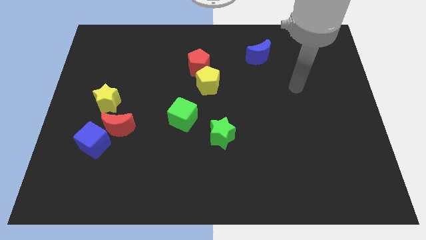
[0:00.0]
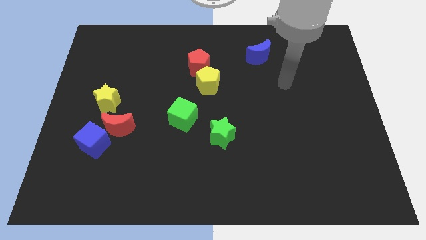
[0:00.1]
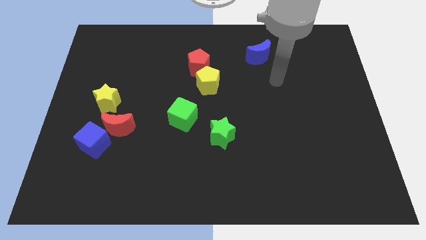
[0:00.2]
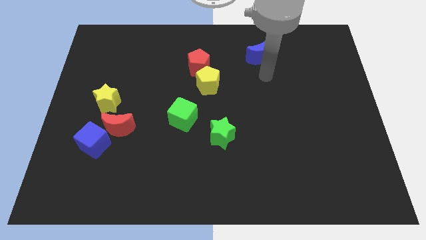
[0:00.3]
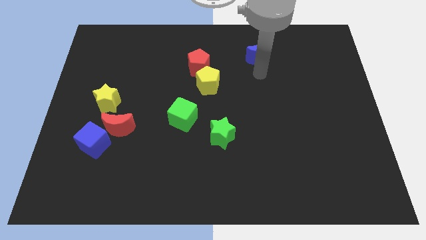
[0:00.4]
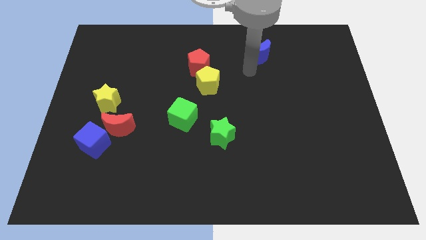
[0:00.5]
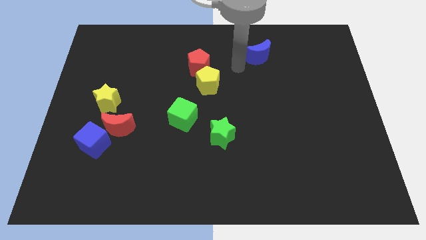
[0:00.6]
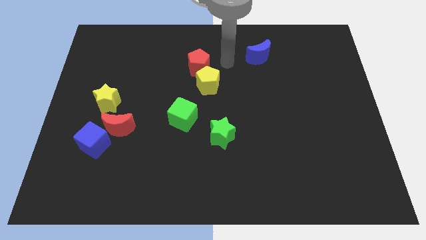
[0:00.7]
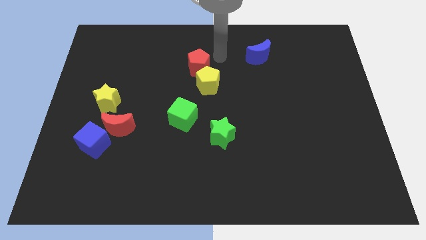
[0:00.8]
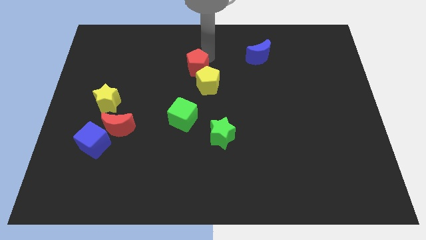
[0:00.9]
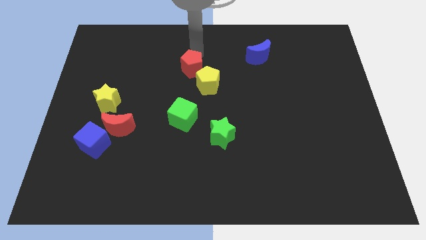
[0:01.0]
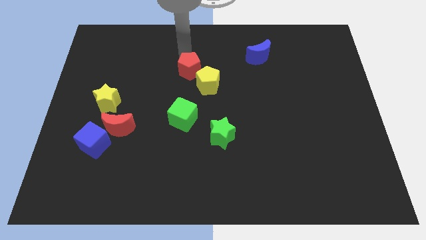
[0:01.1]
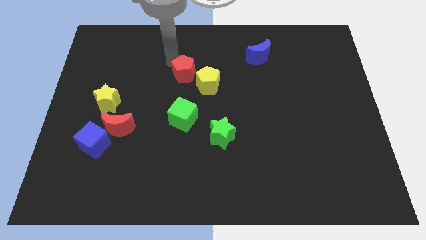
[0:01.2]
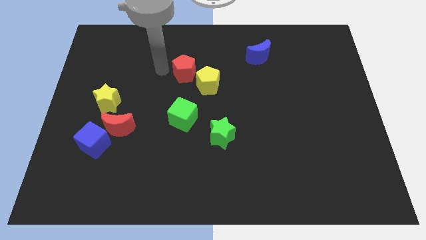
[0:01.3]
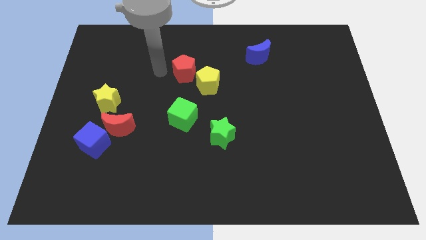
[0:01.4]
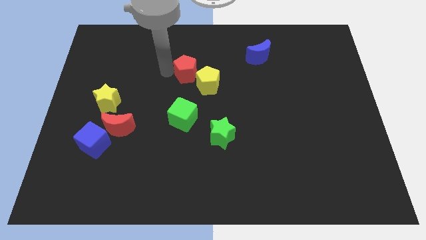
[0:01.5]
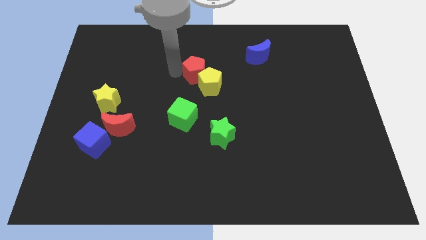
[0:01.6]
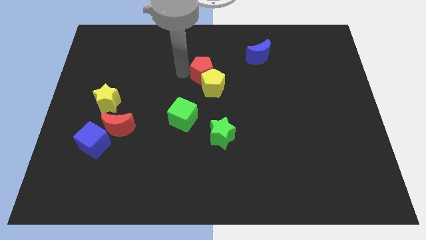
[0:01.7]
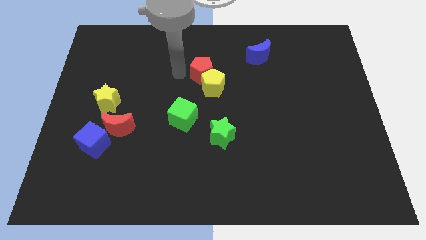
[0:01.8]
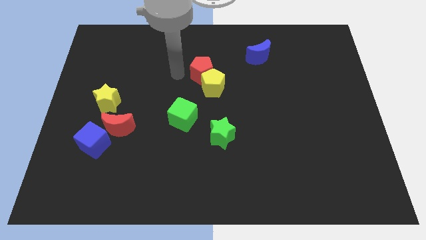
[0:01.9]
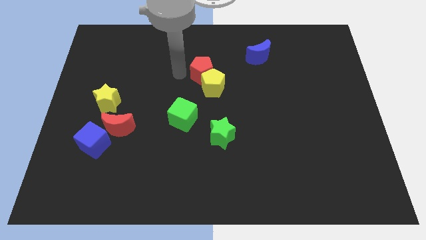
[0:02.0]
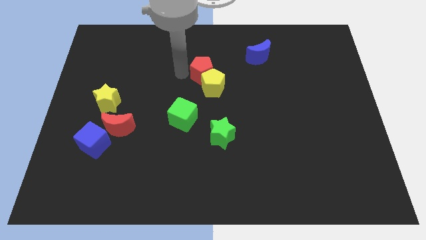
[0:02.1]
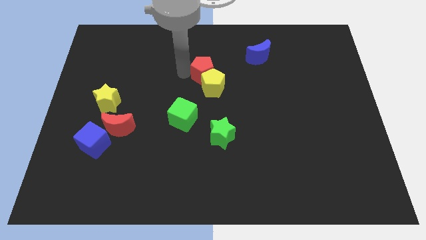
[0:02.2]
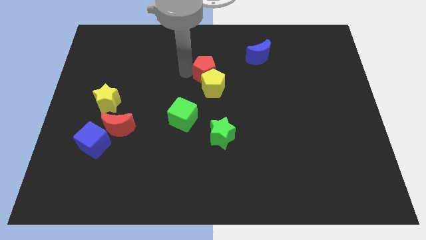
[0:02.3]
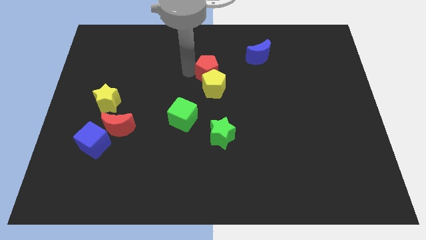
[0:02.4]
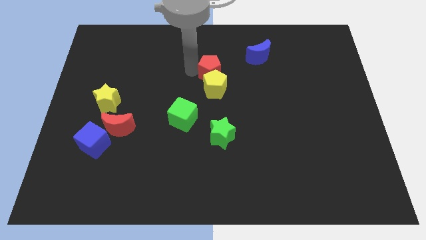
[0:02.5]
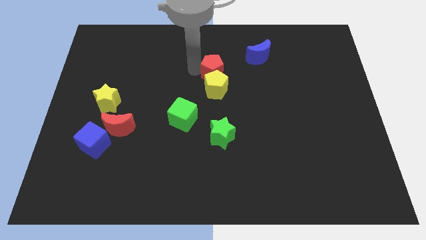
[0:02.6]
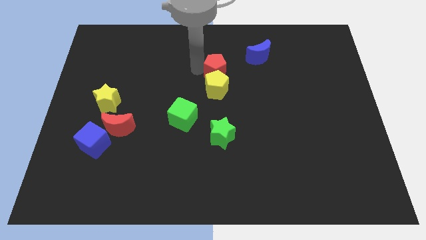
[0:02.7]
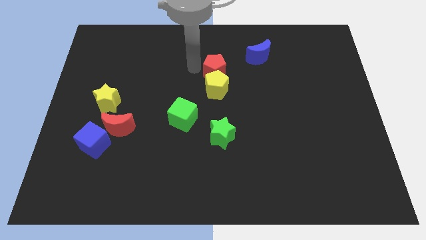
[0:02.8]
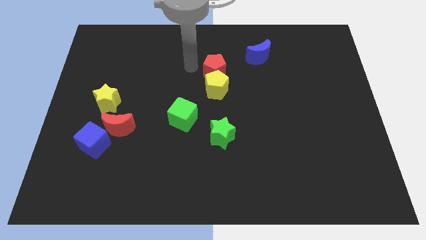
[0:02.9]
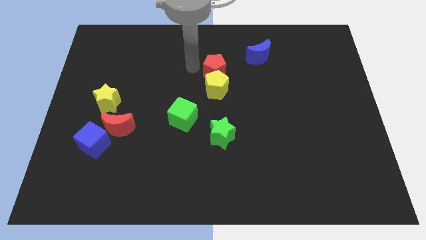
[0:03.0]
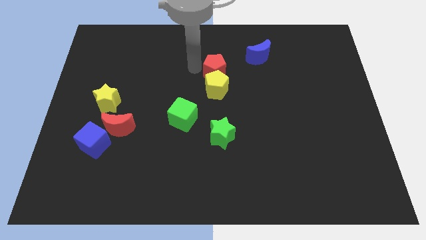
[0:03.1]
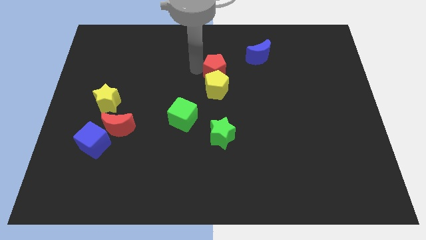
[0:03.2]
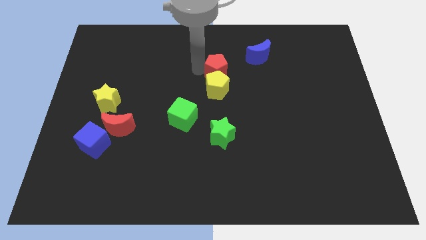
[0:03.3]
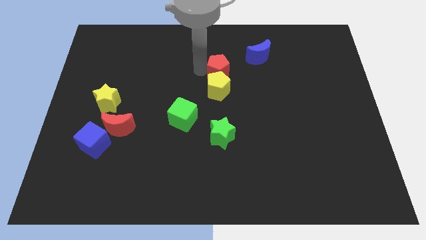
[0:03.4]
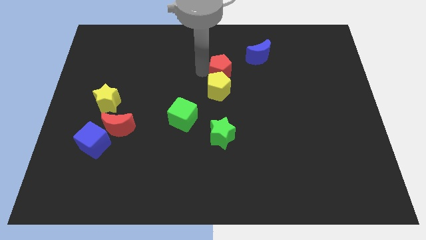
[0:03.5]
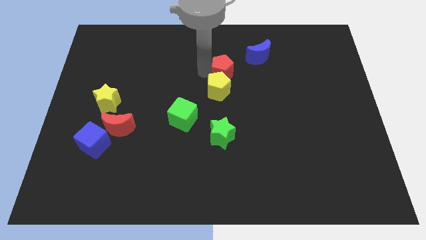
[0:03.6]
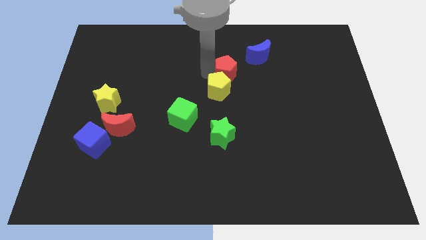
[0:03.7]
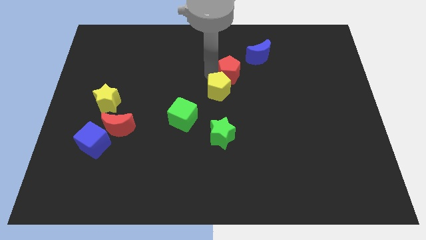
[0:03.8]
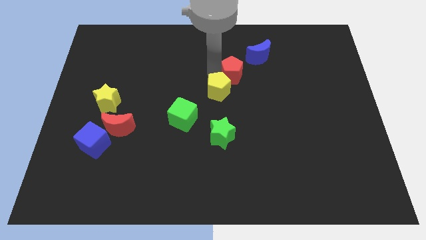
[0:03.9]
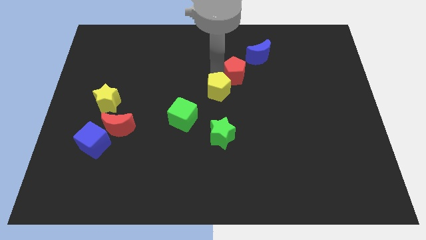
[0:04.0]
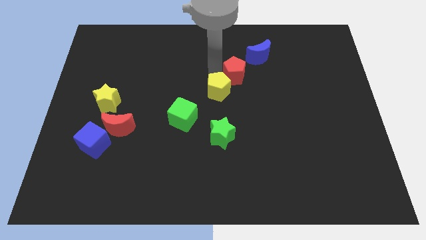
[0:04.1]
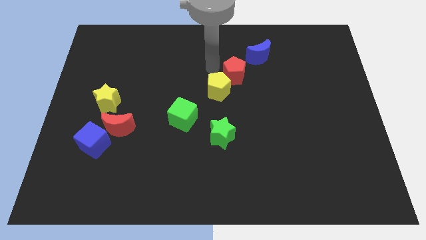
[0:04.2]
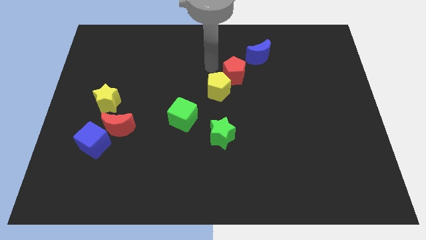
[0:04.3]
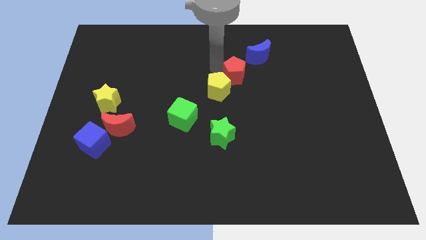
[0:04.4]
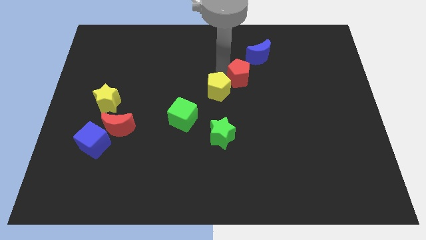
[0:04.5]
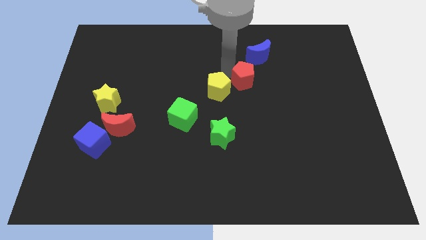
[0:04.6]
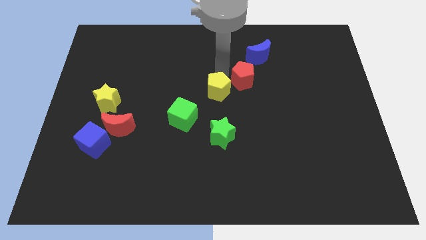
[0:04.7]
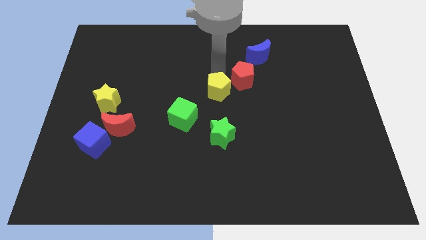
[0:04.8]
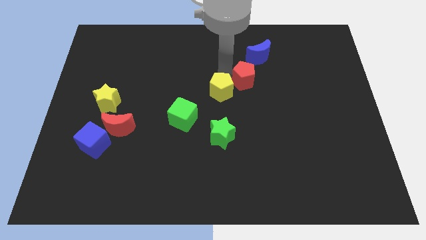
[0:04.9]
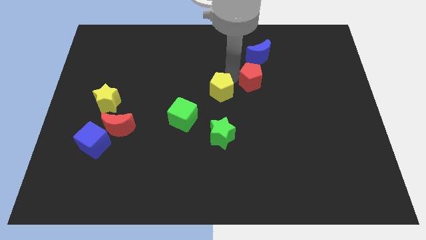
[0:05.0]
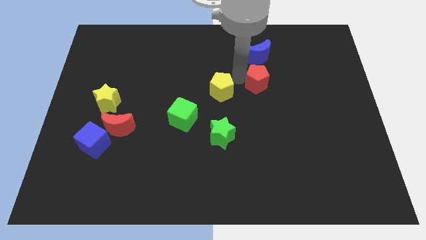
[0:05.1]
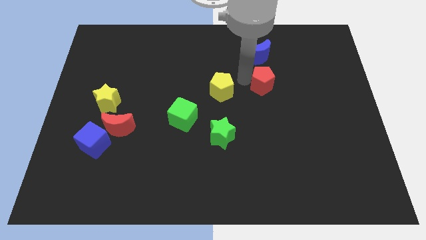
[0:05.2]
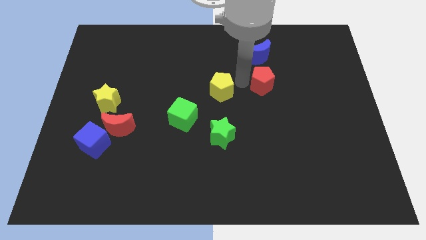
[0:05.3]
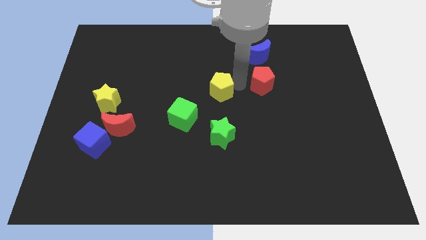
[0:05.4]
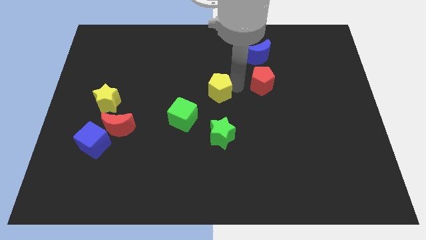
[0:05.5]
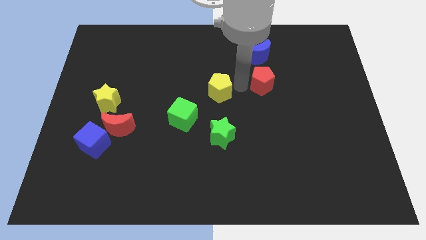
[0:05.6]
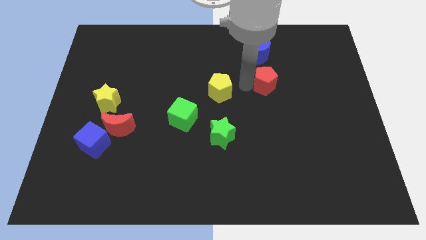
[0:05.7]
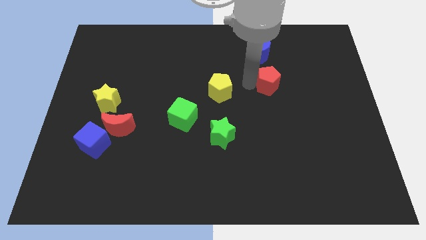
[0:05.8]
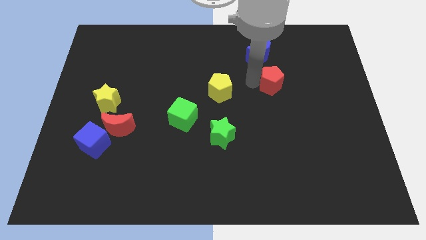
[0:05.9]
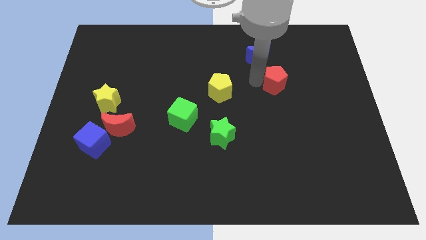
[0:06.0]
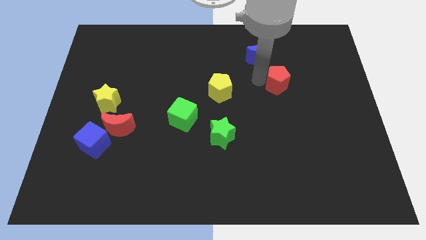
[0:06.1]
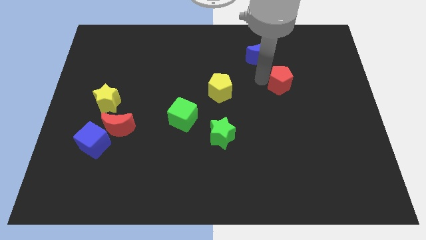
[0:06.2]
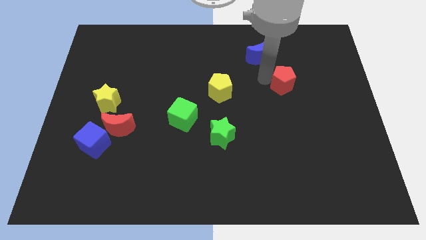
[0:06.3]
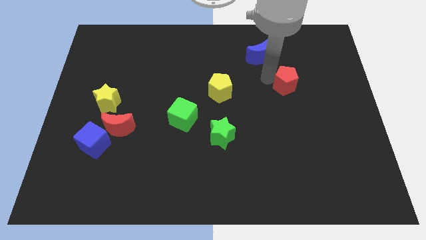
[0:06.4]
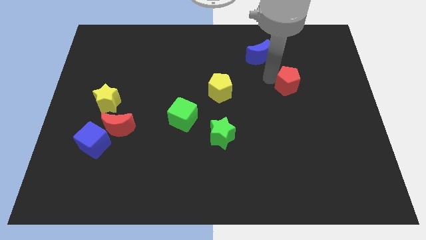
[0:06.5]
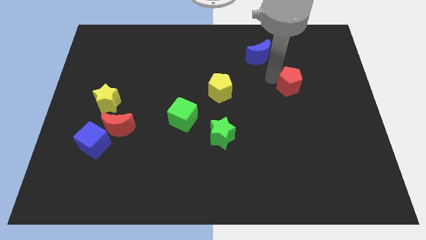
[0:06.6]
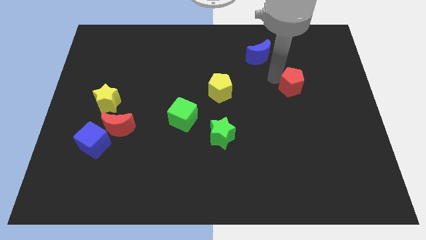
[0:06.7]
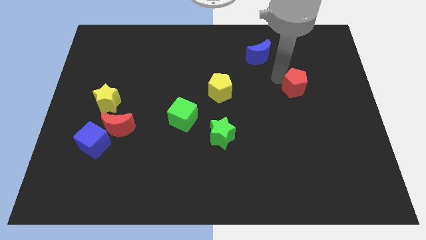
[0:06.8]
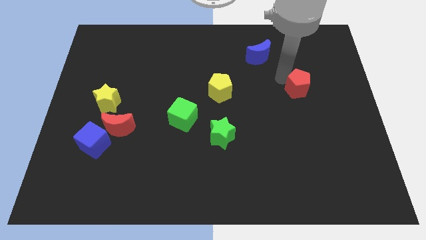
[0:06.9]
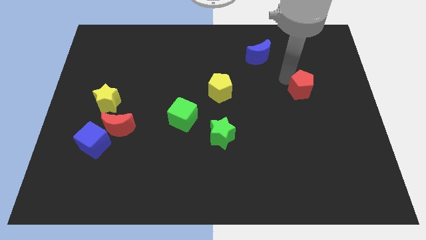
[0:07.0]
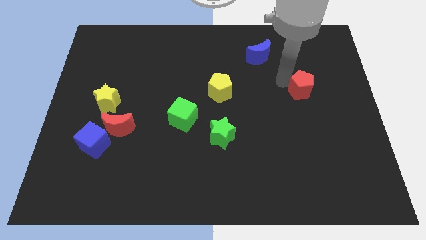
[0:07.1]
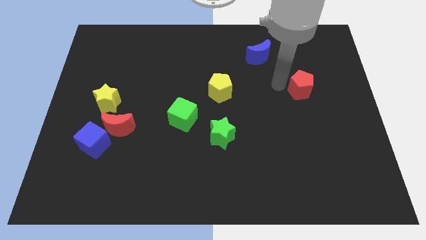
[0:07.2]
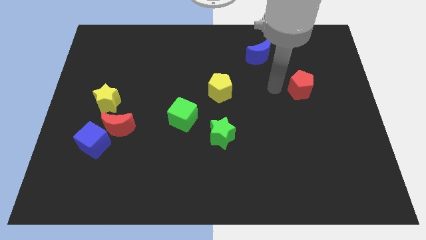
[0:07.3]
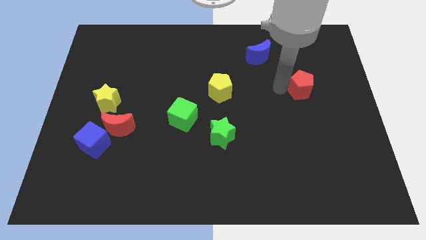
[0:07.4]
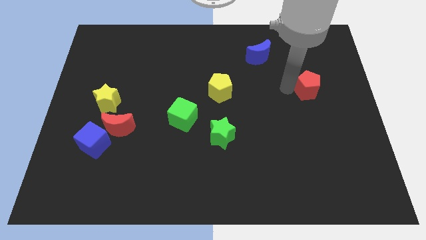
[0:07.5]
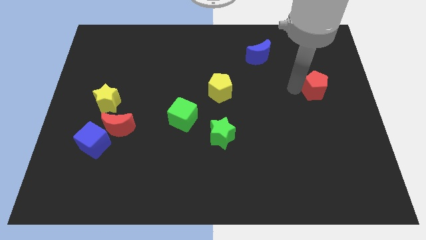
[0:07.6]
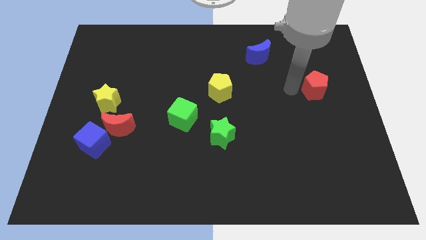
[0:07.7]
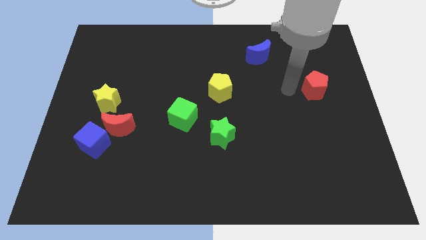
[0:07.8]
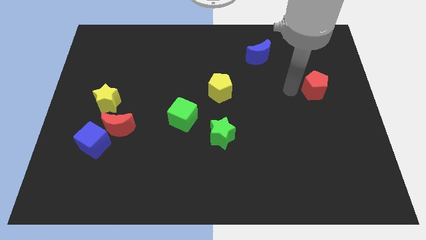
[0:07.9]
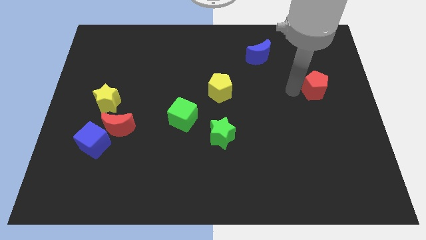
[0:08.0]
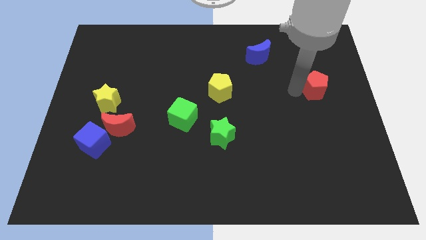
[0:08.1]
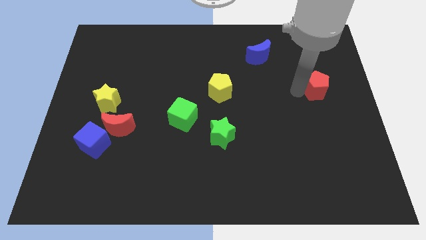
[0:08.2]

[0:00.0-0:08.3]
put the red pentagon to the right side of the board

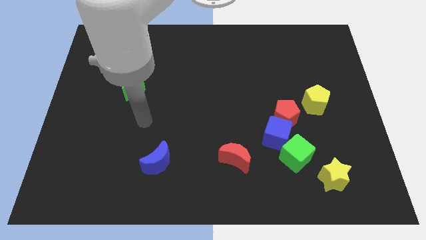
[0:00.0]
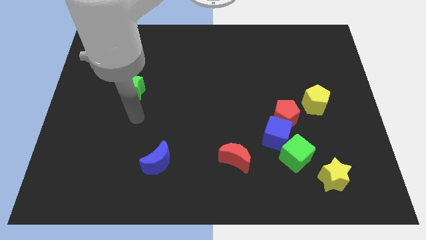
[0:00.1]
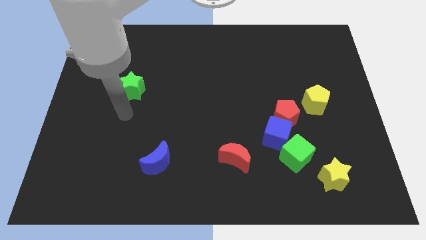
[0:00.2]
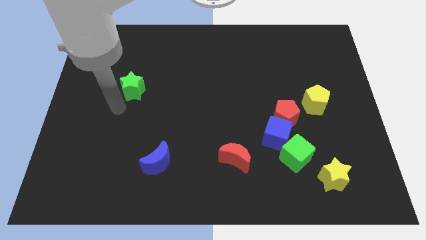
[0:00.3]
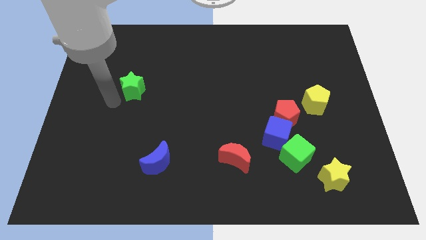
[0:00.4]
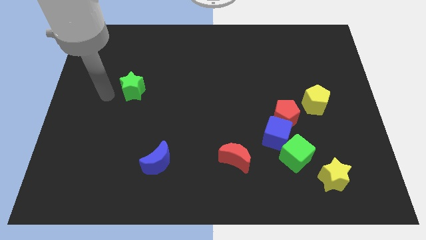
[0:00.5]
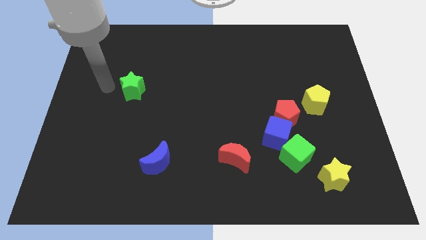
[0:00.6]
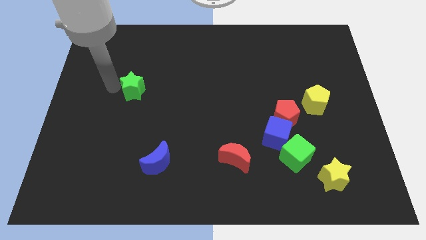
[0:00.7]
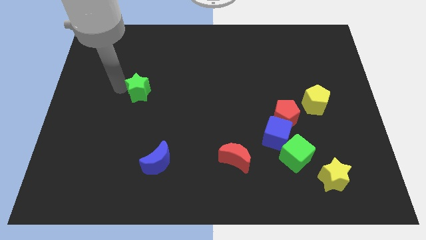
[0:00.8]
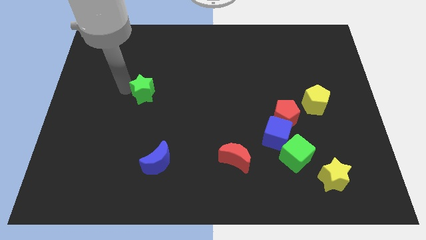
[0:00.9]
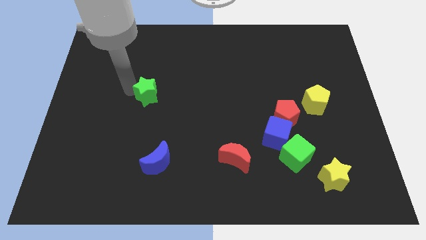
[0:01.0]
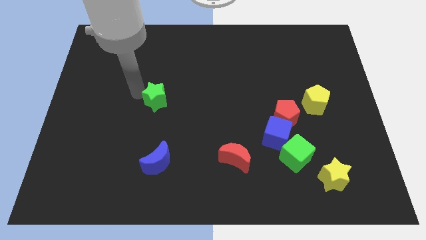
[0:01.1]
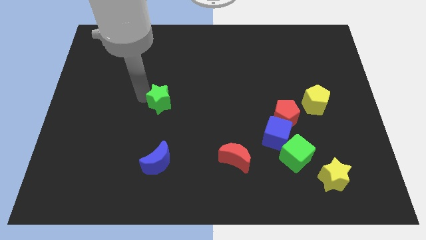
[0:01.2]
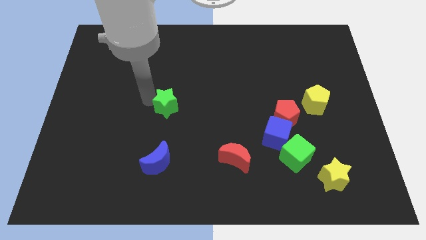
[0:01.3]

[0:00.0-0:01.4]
put the green star to the center
